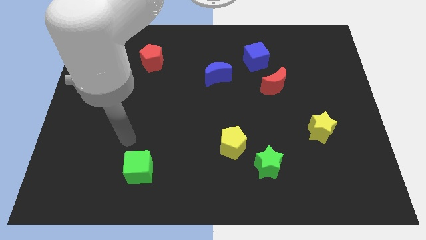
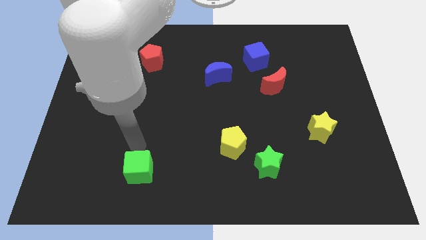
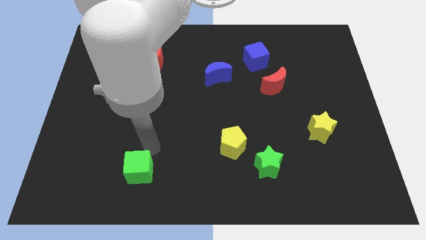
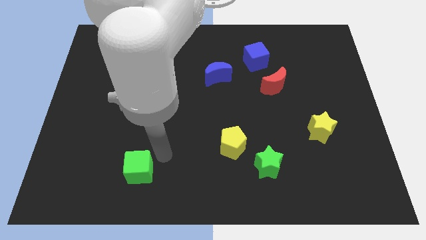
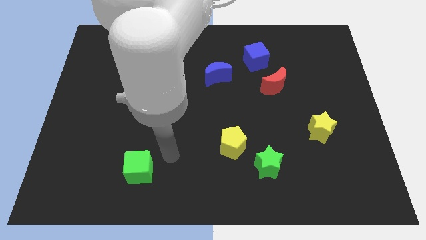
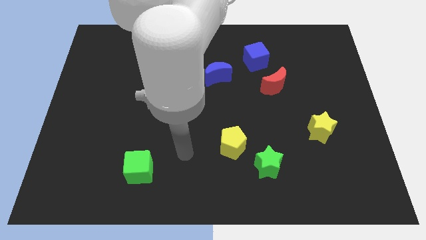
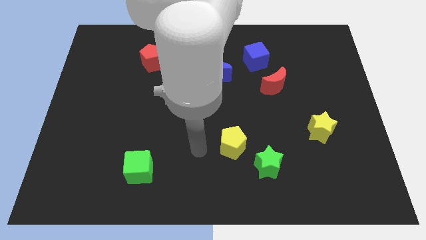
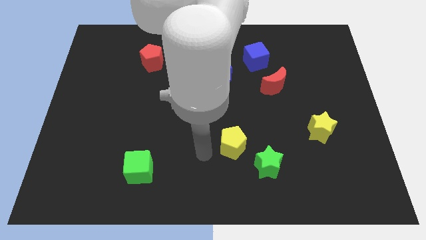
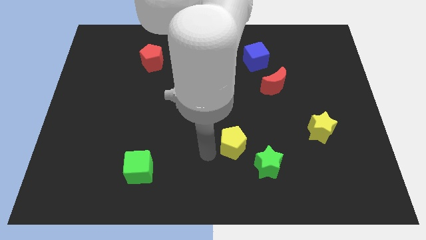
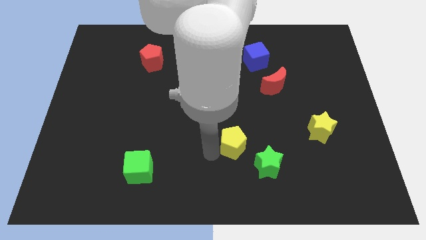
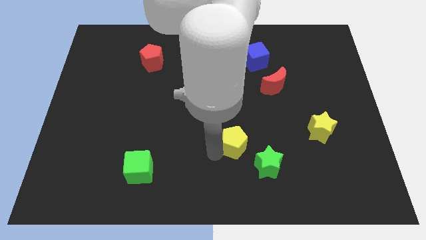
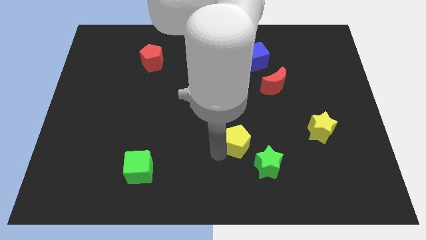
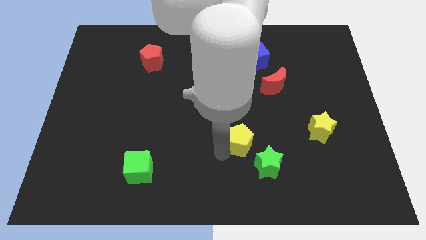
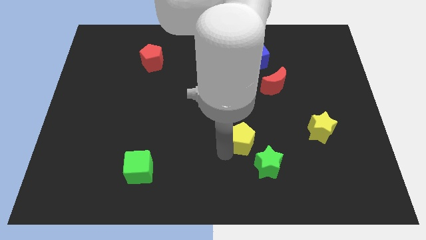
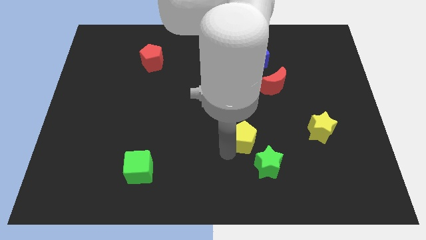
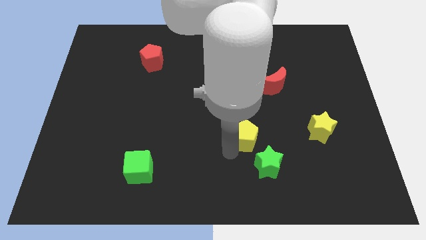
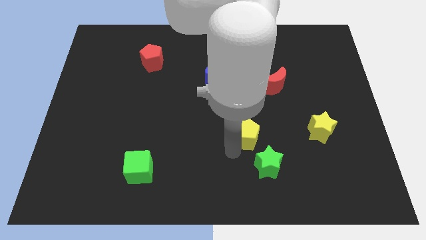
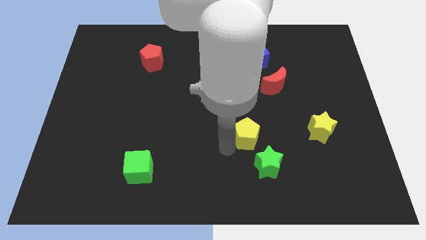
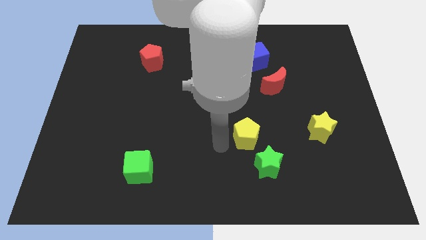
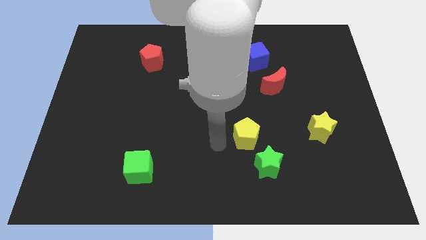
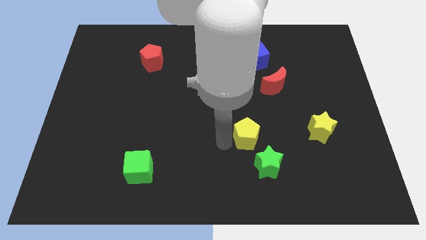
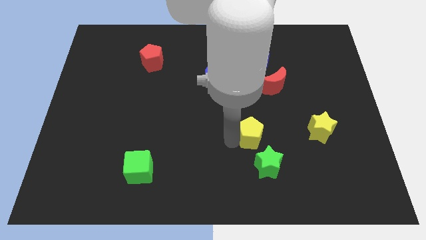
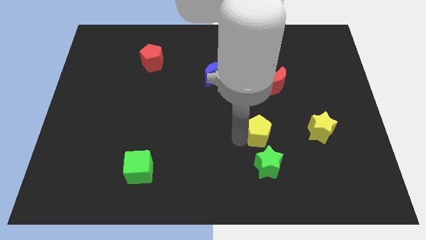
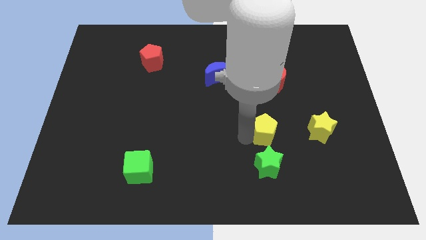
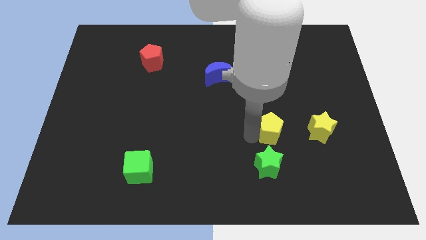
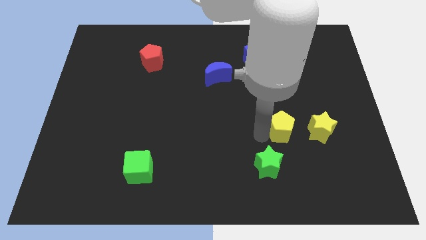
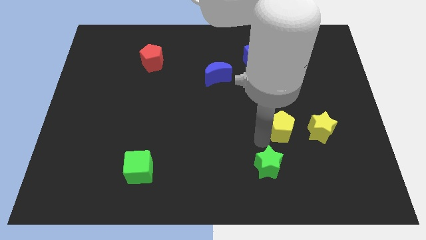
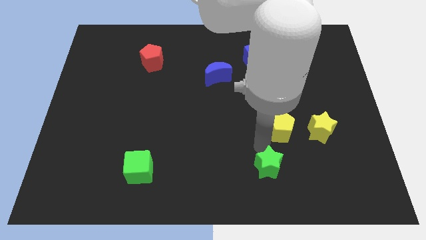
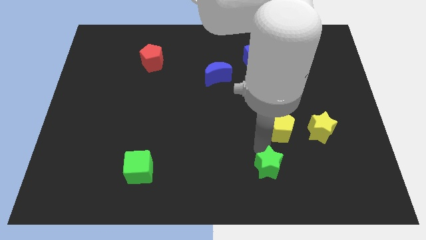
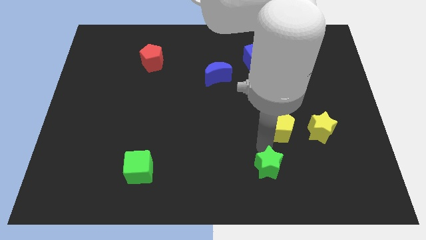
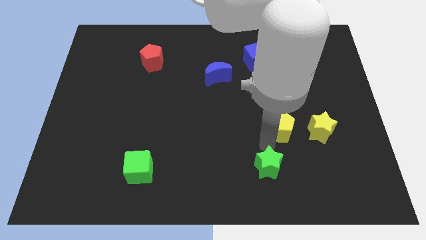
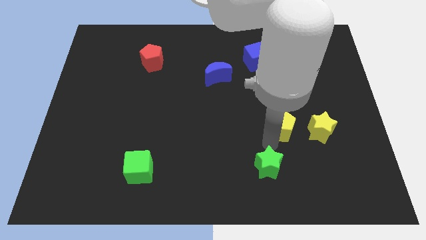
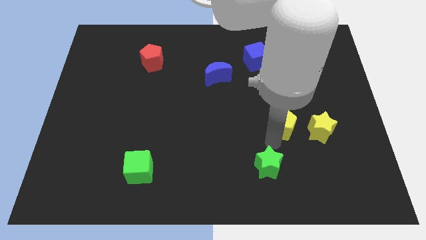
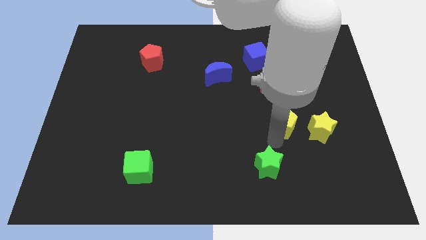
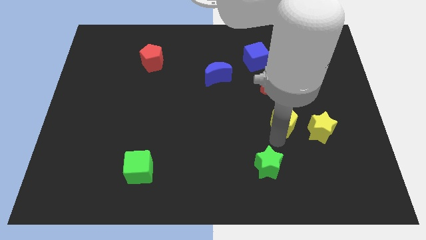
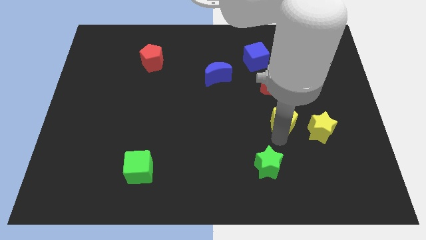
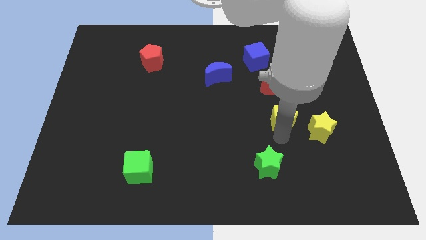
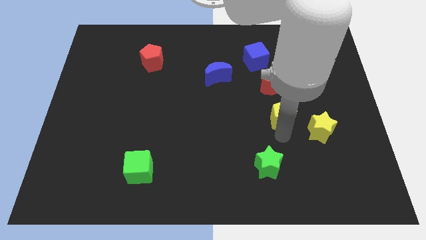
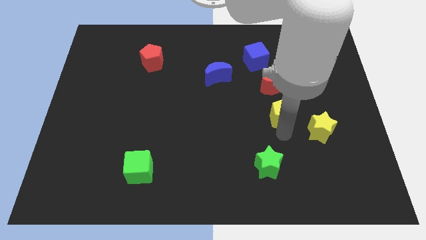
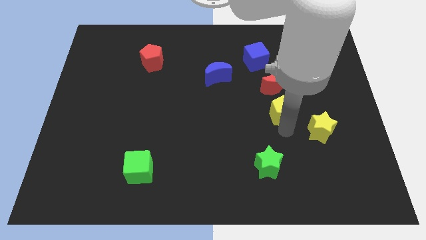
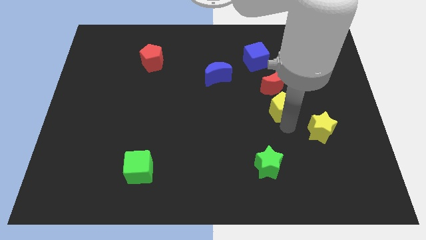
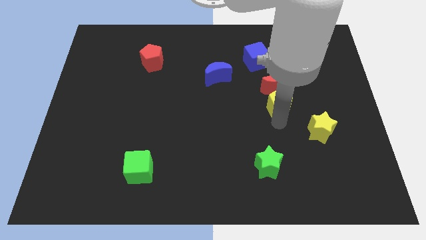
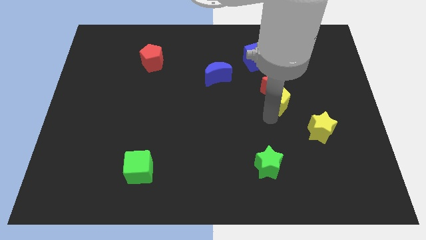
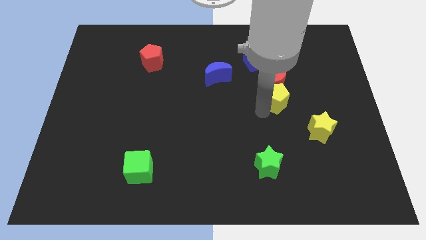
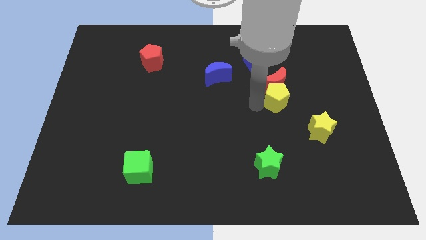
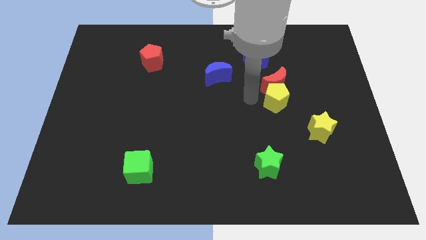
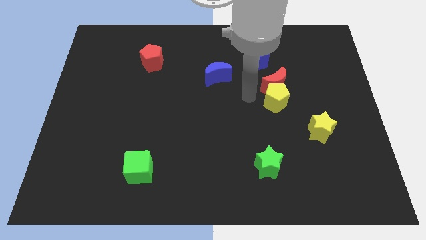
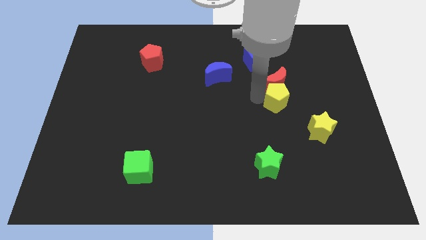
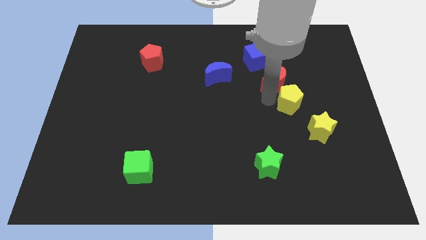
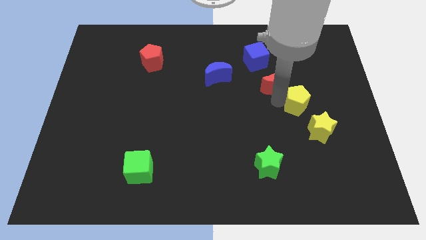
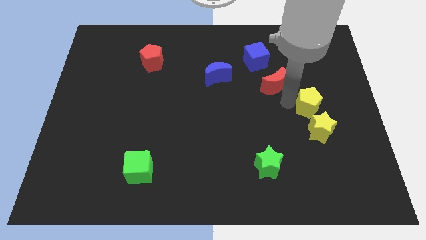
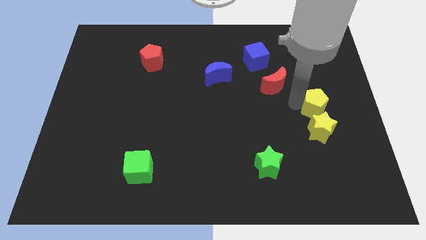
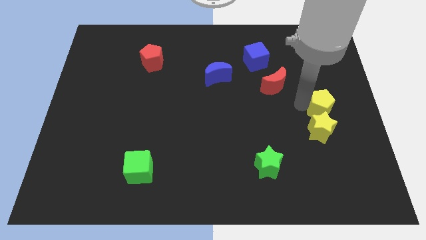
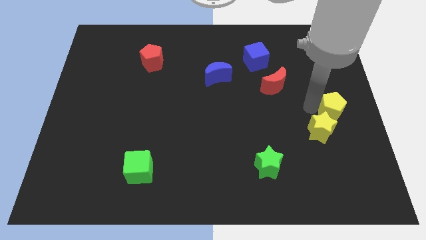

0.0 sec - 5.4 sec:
move the yellow pentagon to the right side

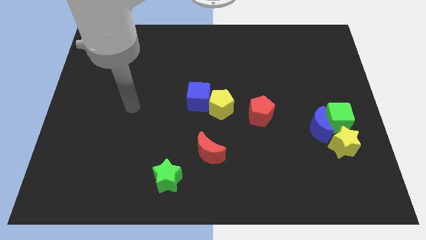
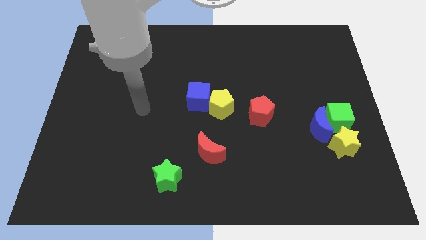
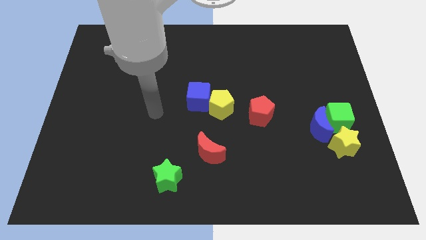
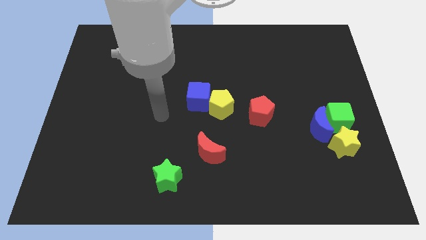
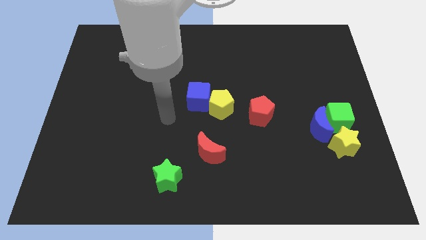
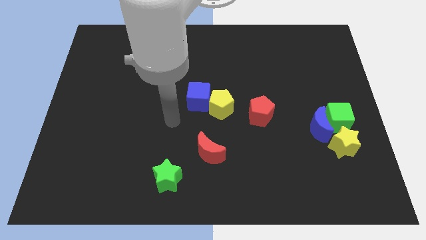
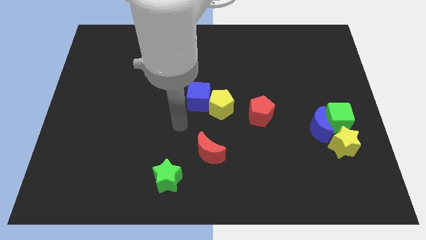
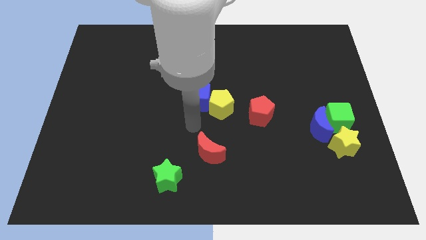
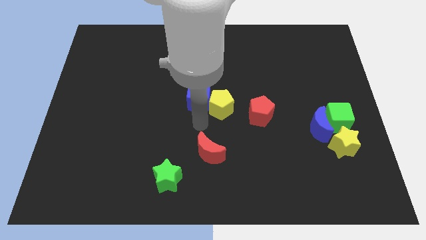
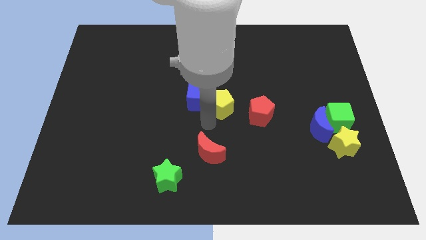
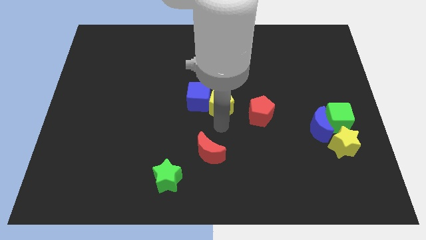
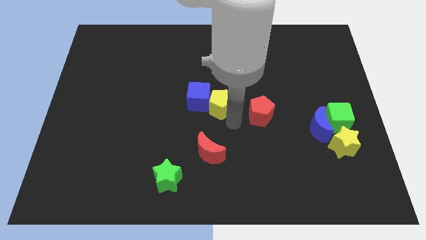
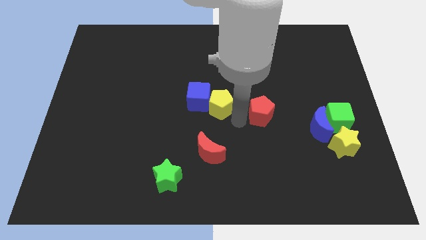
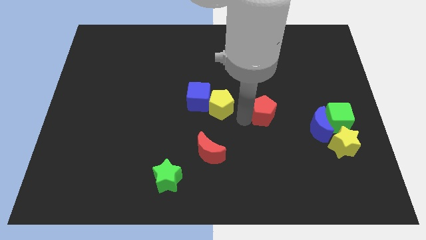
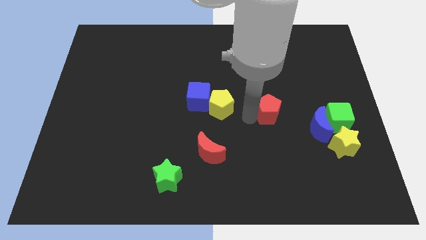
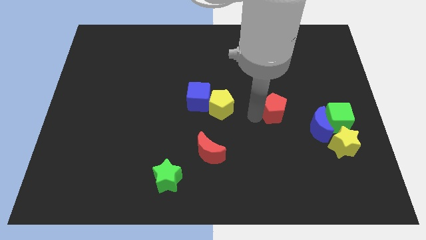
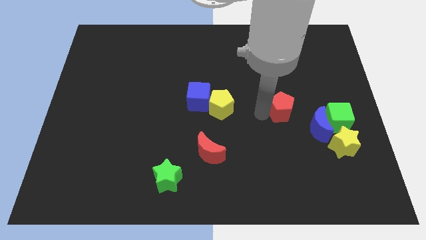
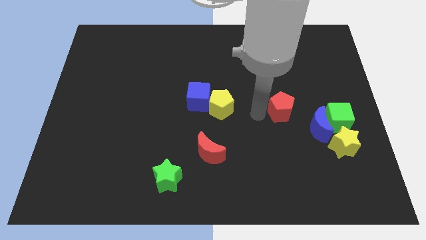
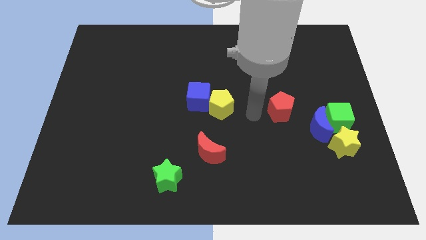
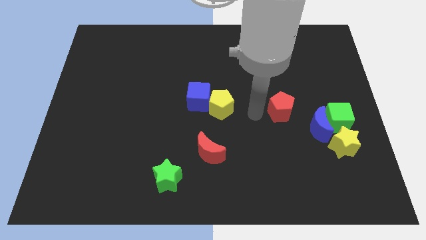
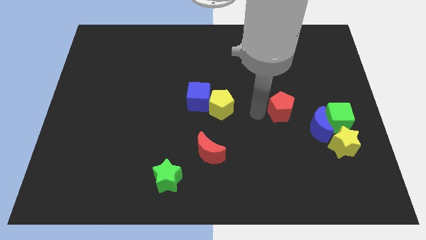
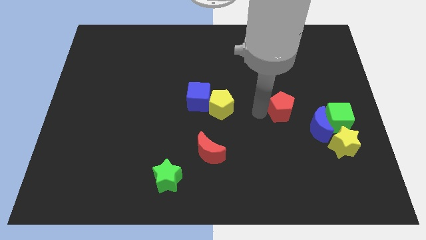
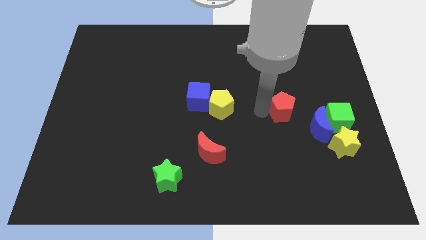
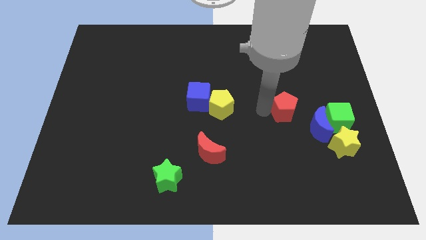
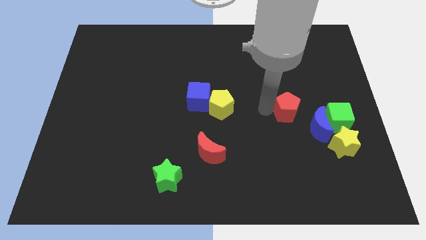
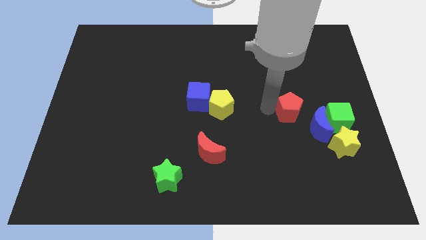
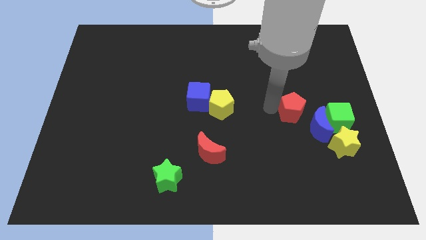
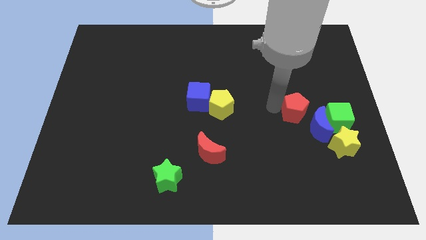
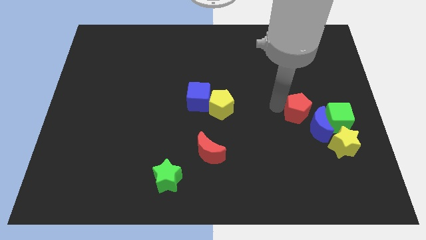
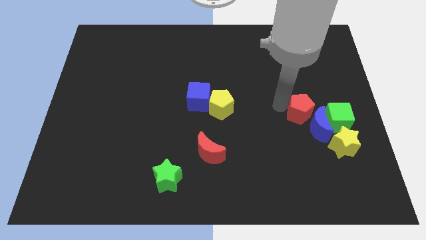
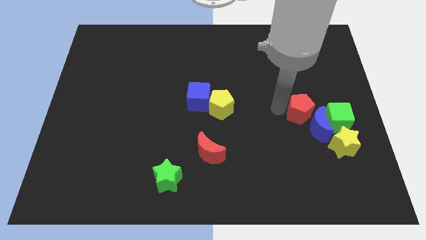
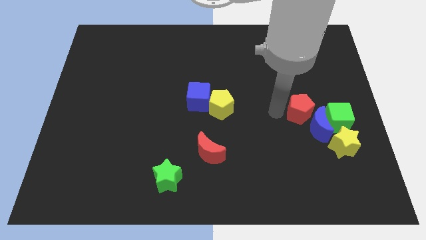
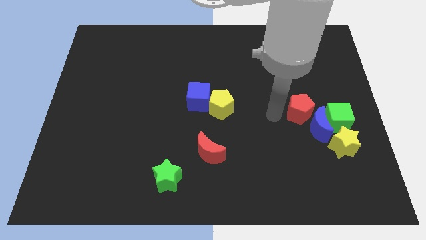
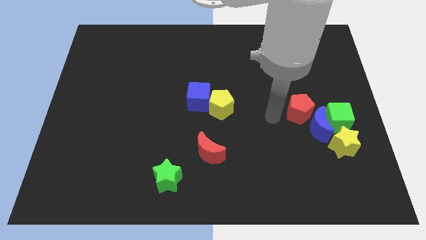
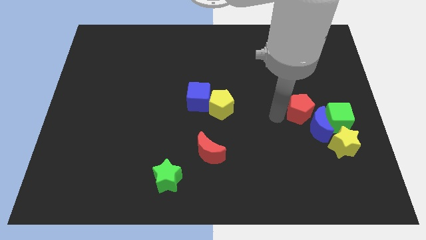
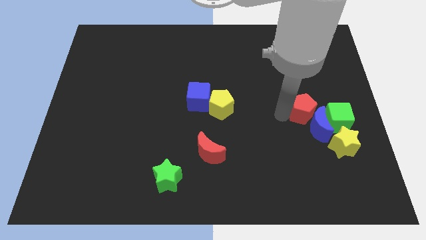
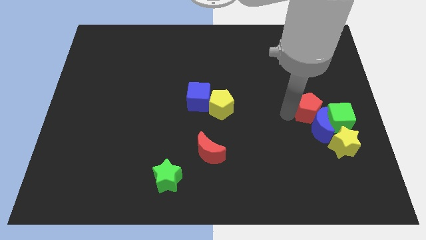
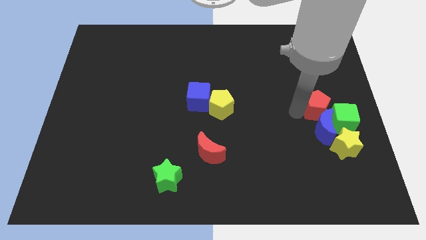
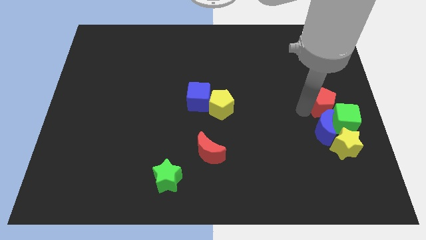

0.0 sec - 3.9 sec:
put the red pentagon to the right side of the board
